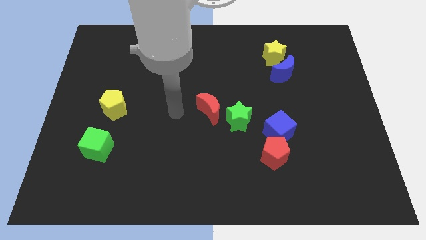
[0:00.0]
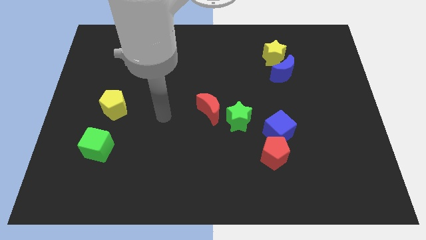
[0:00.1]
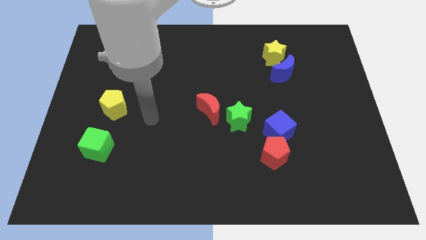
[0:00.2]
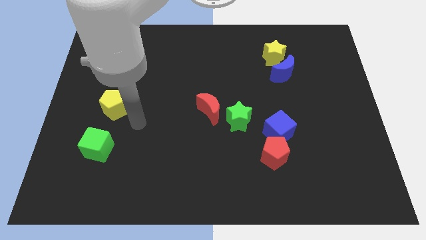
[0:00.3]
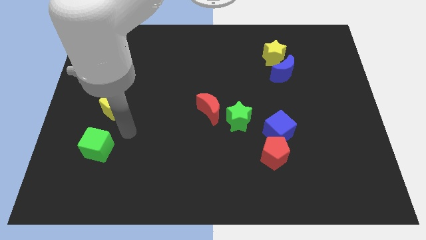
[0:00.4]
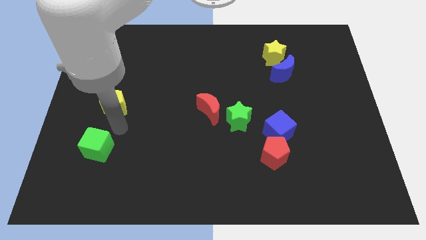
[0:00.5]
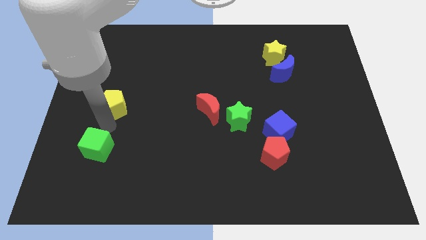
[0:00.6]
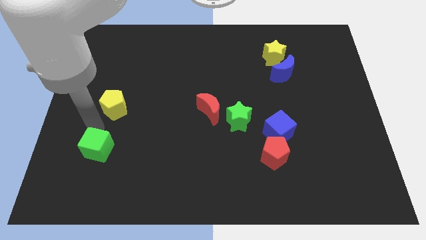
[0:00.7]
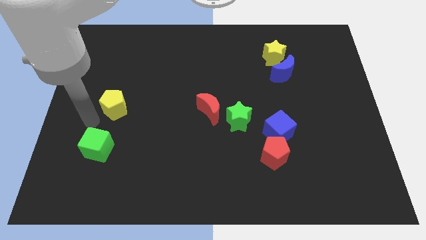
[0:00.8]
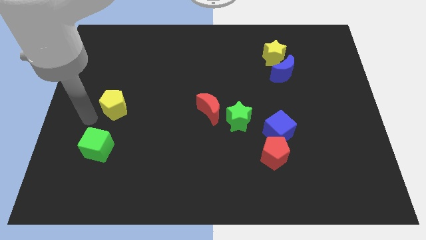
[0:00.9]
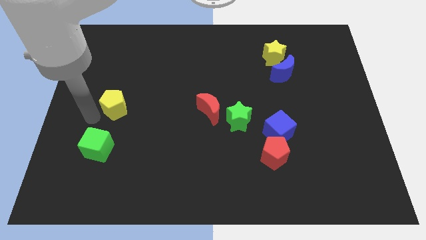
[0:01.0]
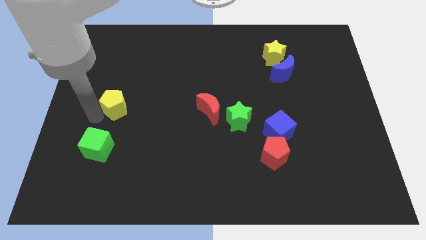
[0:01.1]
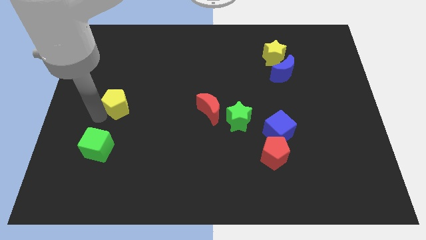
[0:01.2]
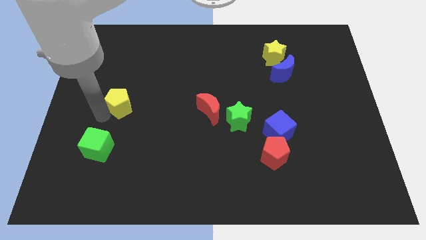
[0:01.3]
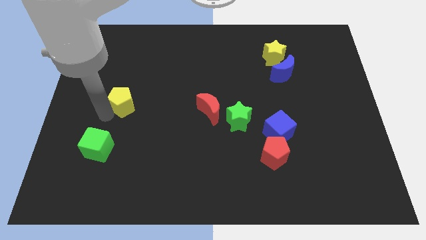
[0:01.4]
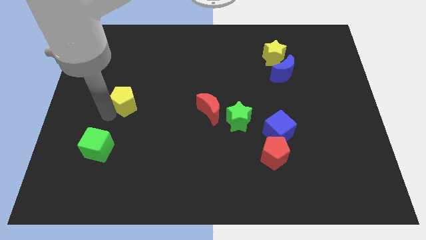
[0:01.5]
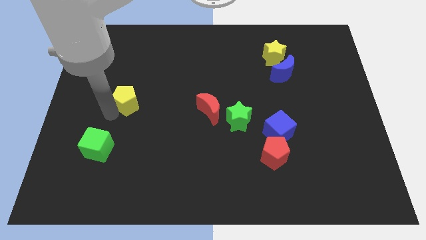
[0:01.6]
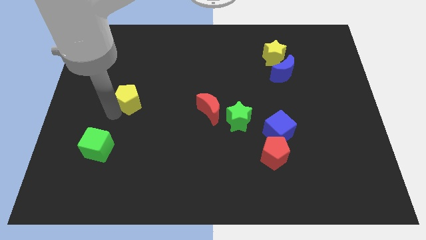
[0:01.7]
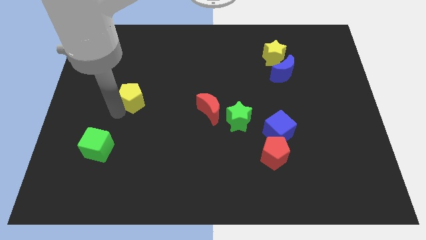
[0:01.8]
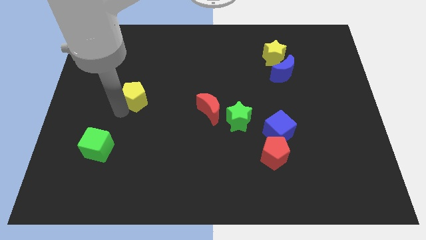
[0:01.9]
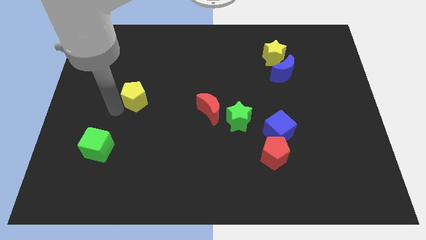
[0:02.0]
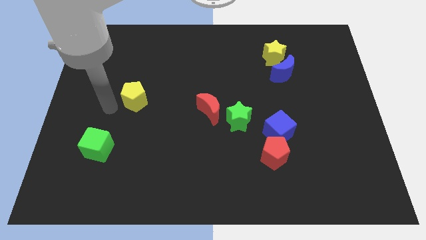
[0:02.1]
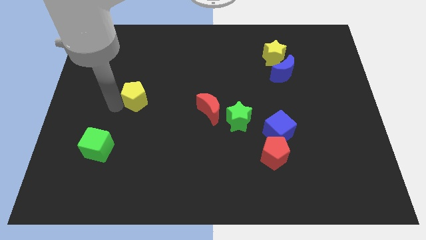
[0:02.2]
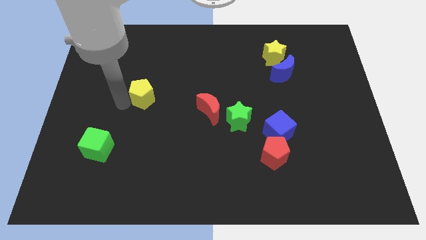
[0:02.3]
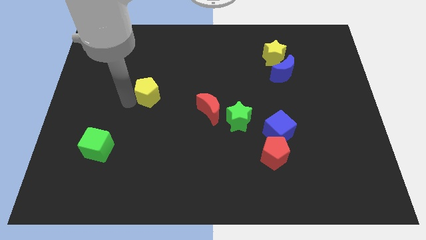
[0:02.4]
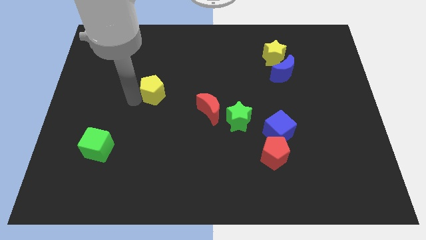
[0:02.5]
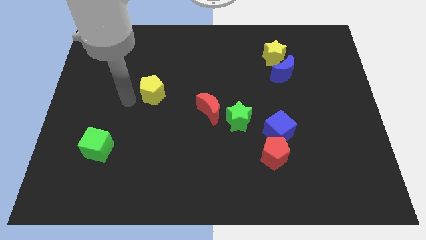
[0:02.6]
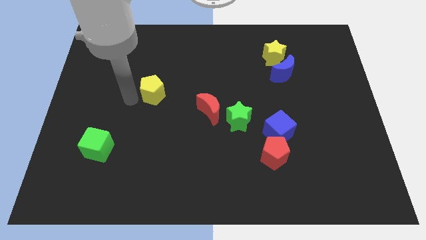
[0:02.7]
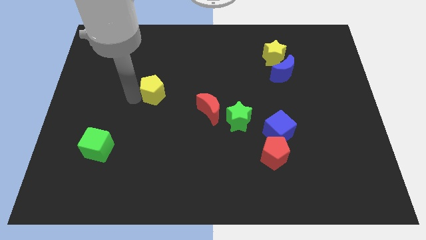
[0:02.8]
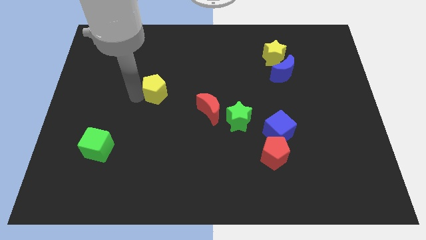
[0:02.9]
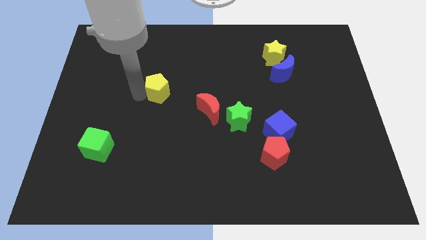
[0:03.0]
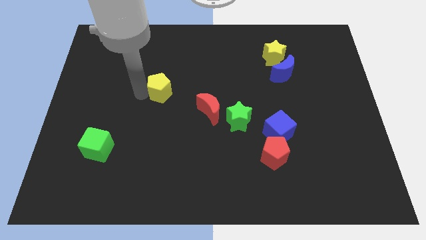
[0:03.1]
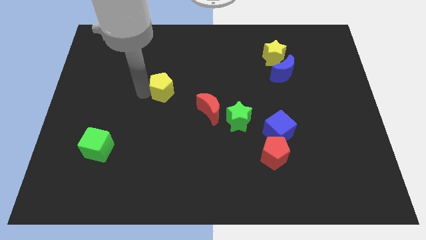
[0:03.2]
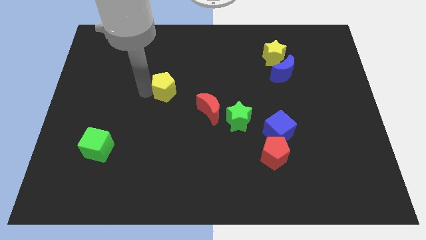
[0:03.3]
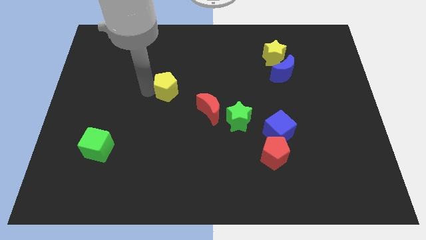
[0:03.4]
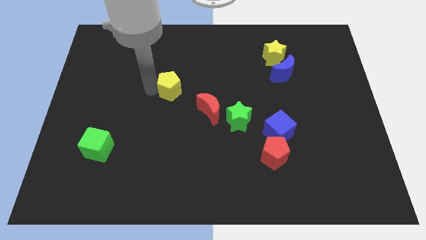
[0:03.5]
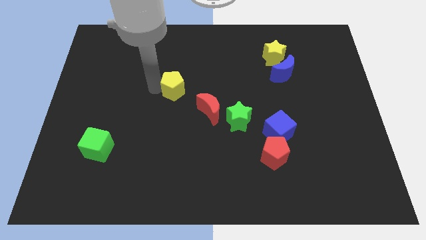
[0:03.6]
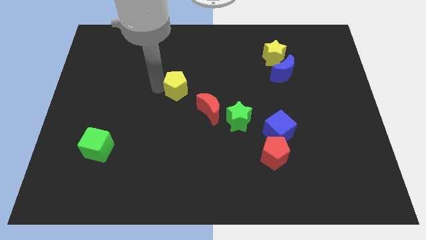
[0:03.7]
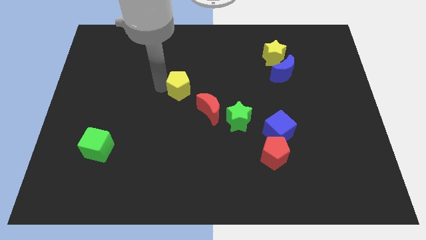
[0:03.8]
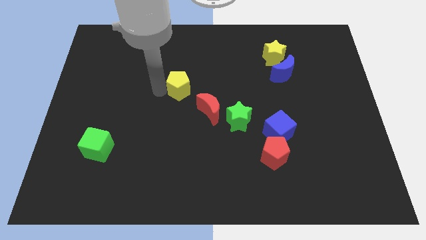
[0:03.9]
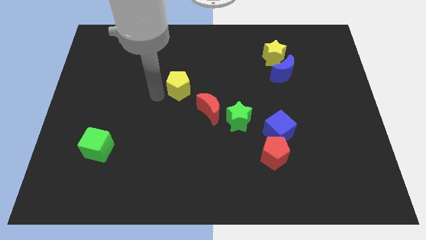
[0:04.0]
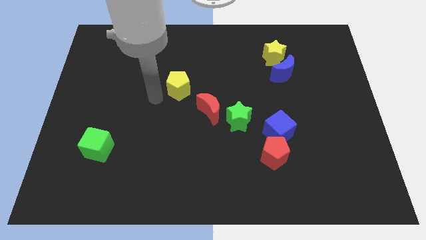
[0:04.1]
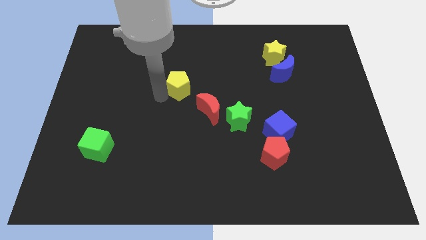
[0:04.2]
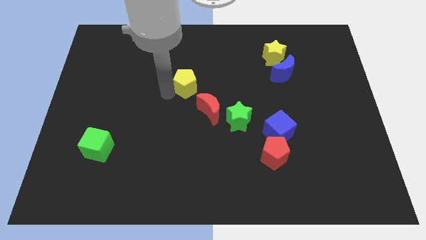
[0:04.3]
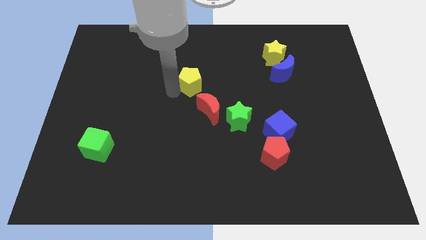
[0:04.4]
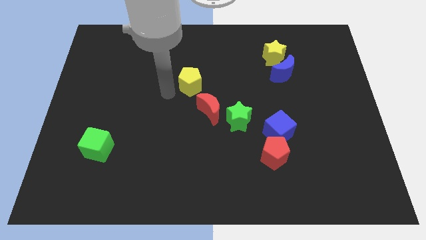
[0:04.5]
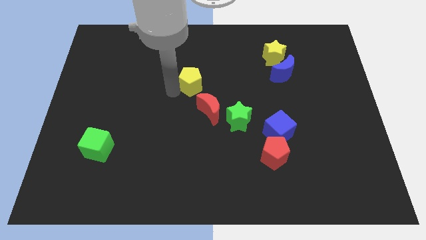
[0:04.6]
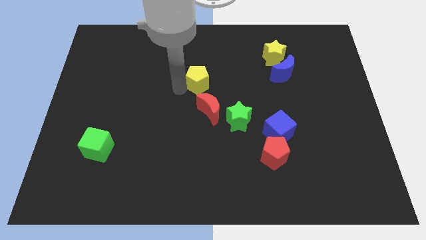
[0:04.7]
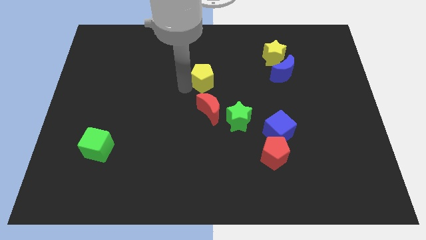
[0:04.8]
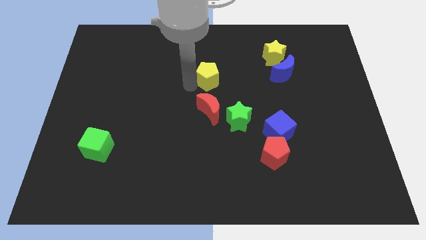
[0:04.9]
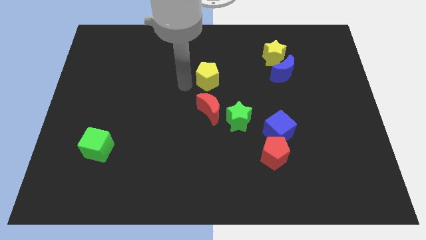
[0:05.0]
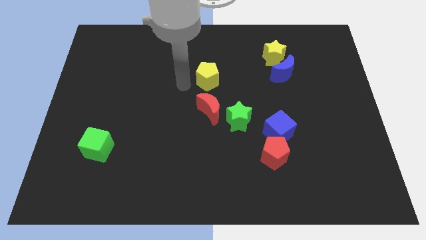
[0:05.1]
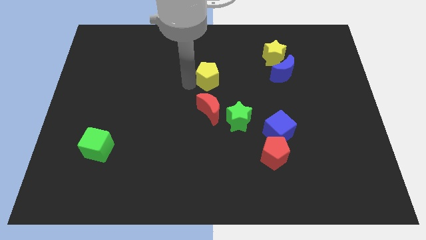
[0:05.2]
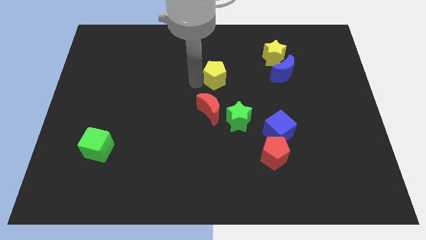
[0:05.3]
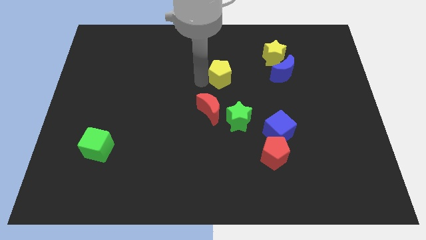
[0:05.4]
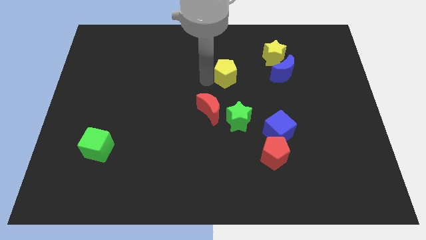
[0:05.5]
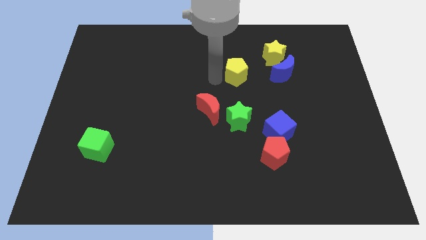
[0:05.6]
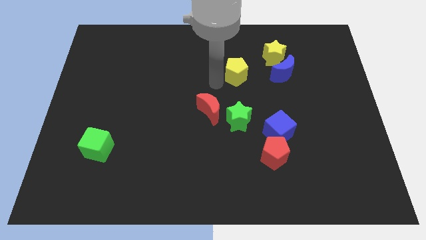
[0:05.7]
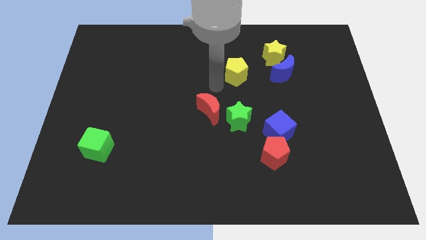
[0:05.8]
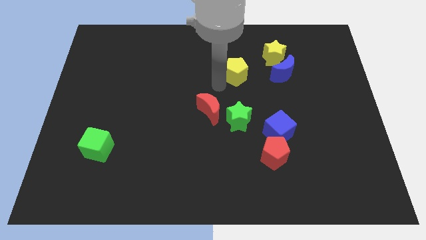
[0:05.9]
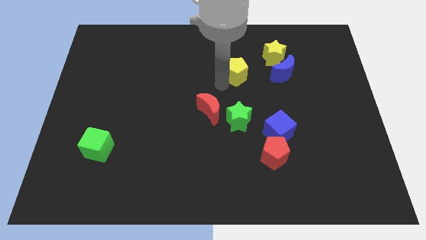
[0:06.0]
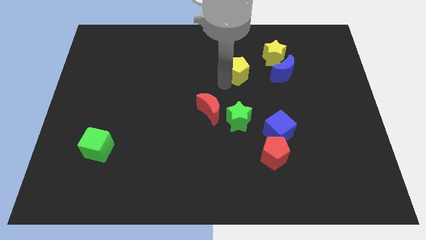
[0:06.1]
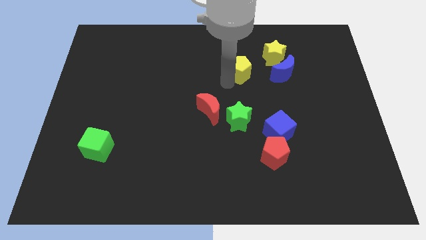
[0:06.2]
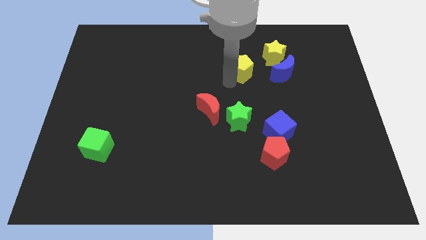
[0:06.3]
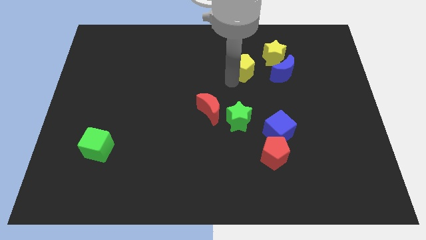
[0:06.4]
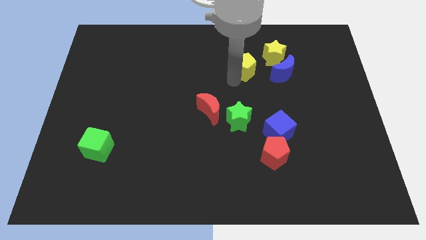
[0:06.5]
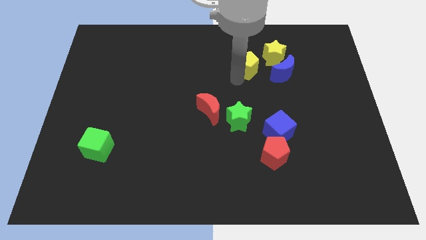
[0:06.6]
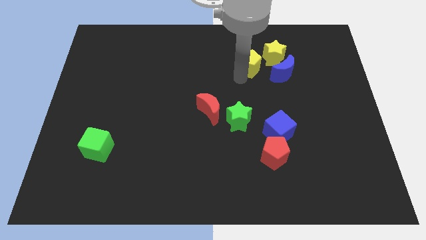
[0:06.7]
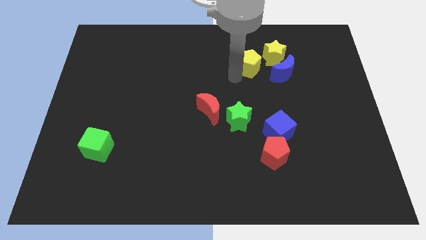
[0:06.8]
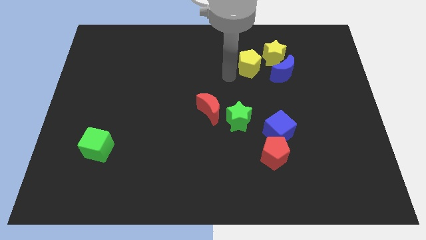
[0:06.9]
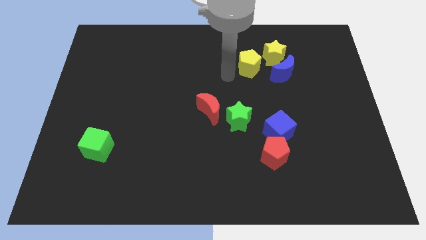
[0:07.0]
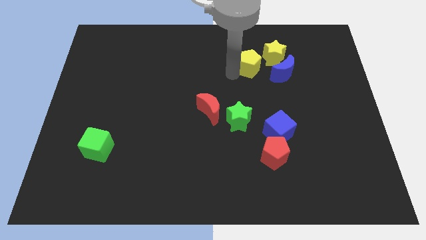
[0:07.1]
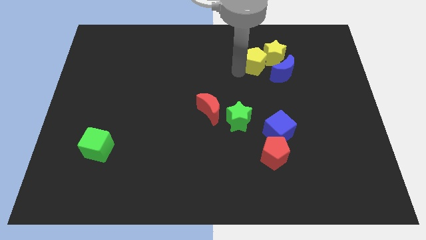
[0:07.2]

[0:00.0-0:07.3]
push the yellow pentagon towards the yellow star

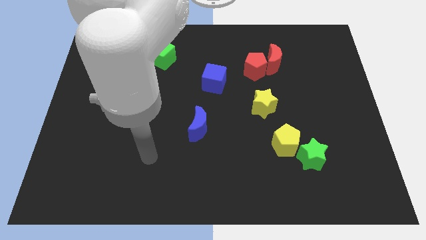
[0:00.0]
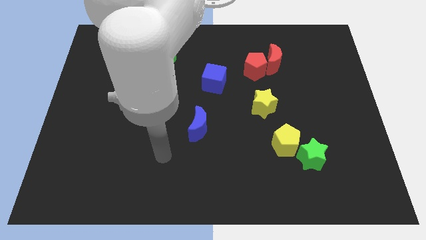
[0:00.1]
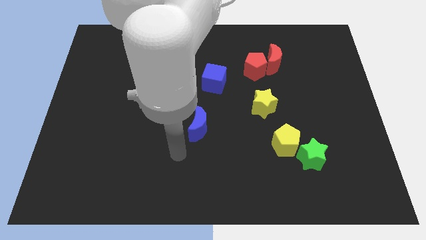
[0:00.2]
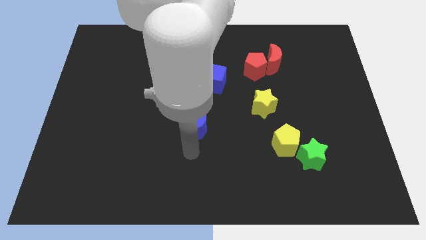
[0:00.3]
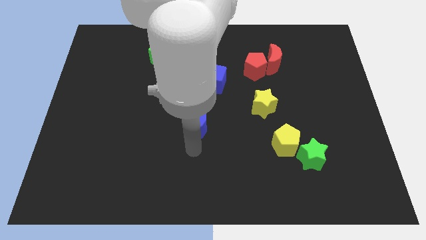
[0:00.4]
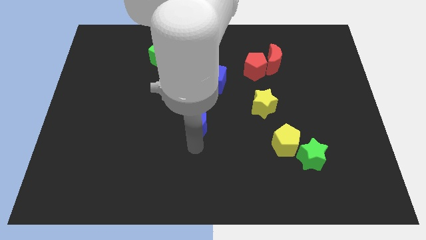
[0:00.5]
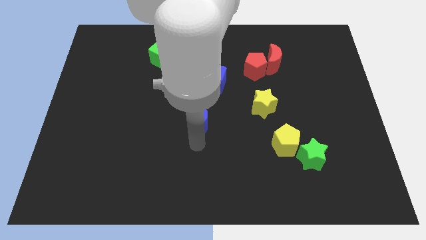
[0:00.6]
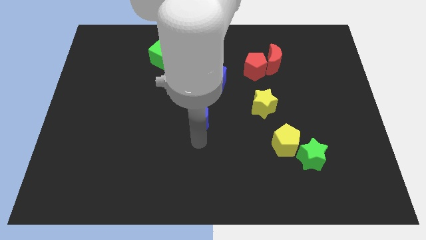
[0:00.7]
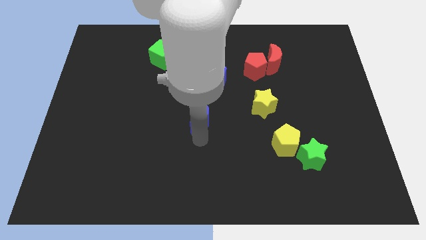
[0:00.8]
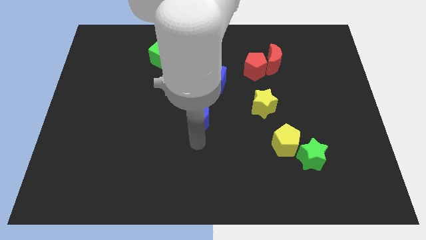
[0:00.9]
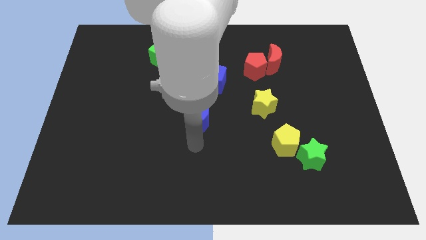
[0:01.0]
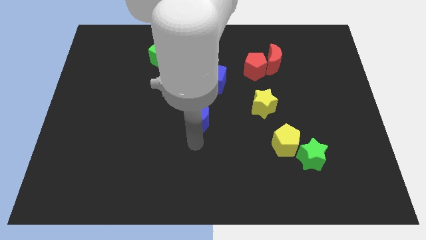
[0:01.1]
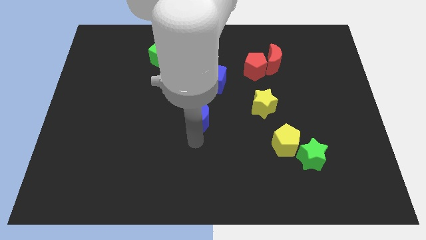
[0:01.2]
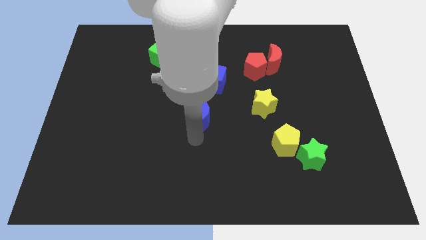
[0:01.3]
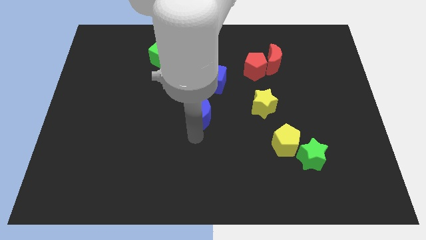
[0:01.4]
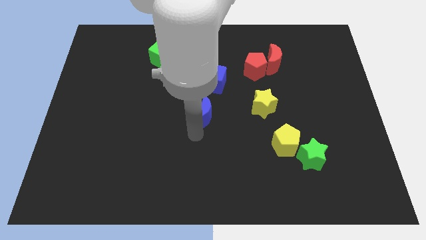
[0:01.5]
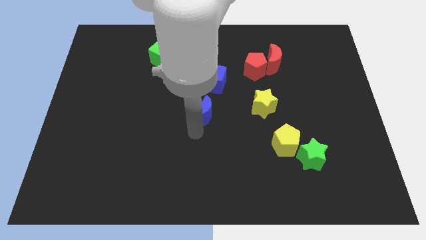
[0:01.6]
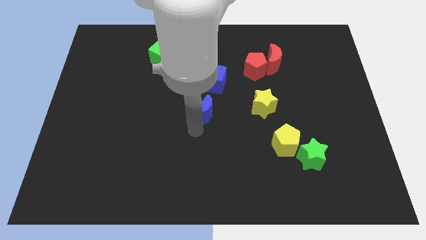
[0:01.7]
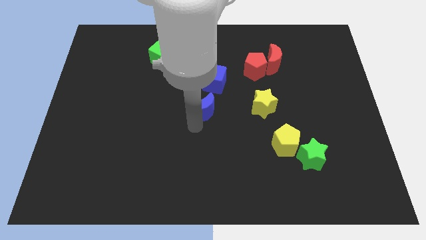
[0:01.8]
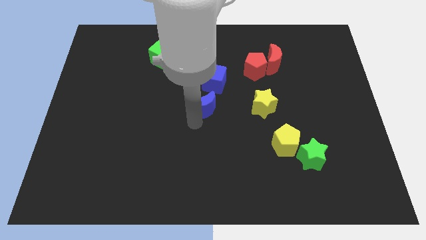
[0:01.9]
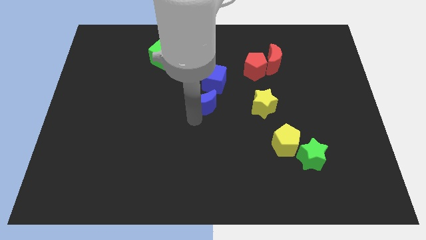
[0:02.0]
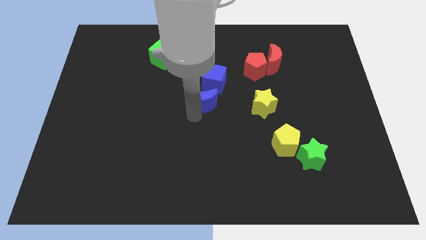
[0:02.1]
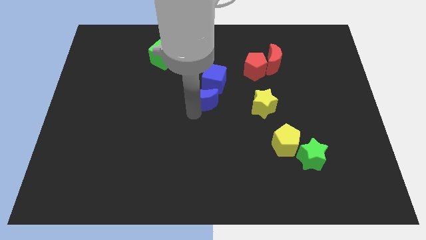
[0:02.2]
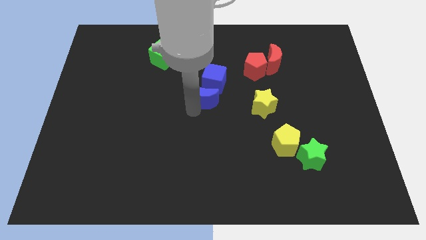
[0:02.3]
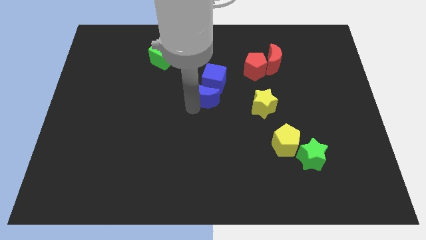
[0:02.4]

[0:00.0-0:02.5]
slide the blue moon close to the blue cube
